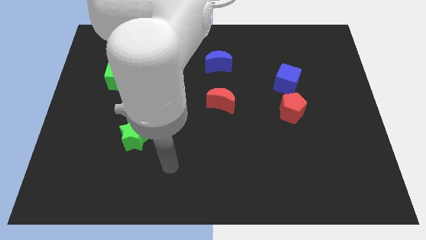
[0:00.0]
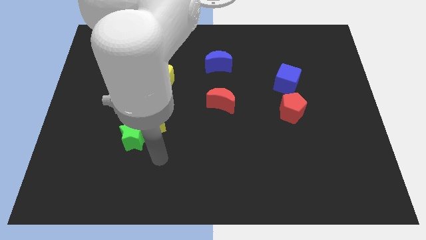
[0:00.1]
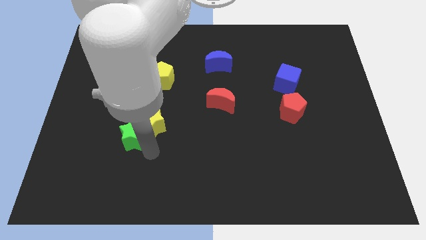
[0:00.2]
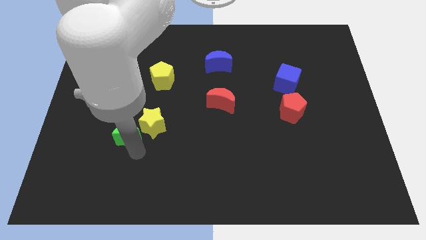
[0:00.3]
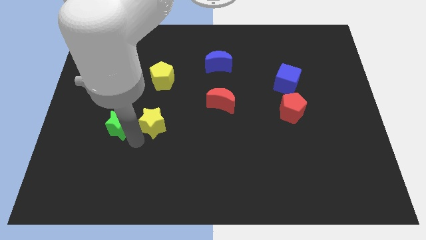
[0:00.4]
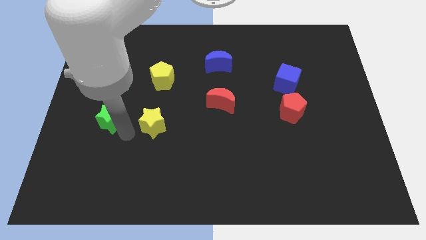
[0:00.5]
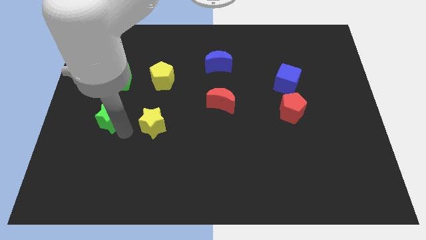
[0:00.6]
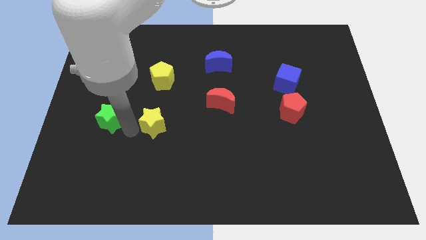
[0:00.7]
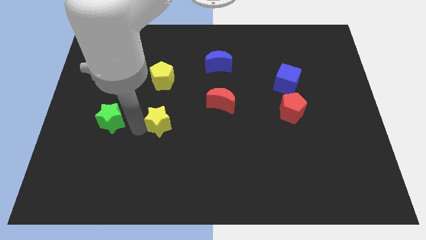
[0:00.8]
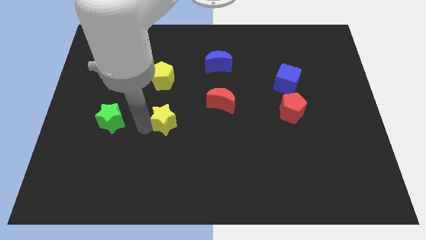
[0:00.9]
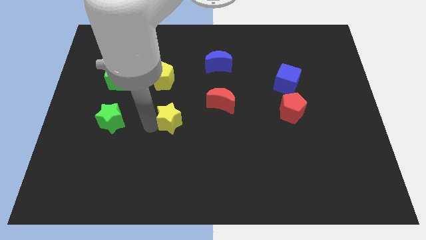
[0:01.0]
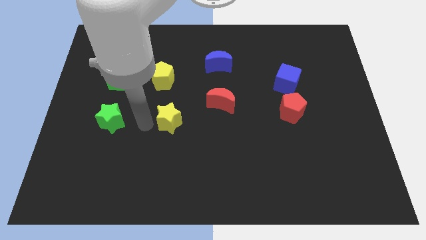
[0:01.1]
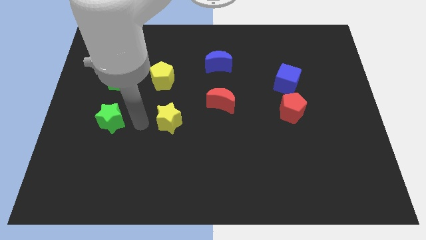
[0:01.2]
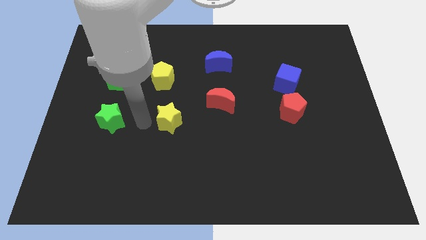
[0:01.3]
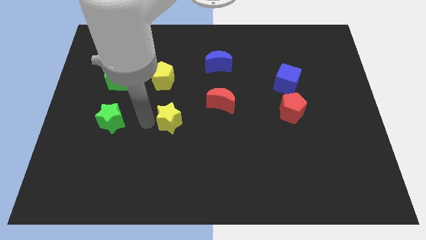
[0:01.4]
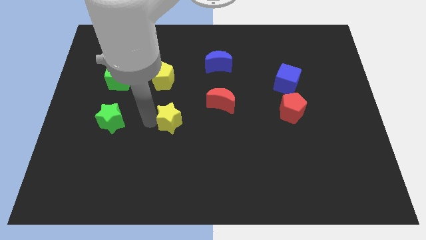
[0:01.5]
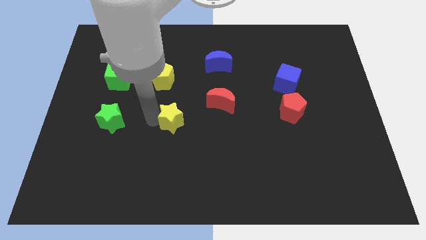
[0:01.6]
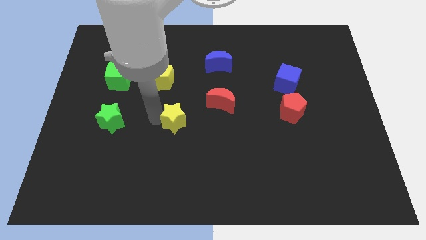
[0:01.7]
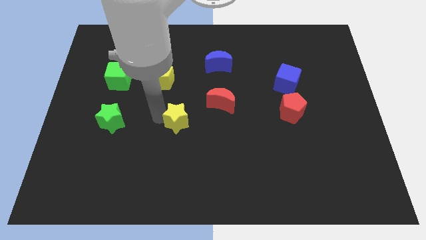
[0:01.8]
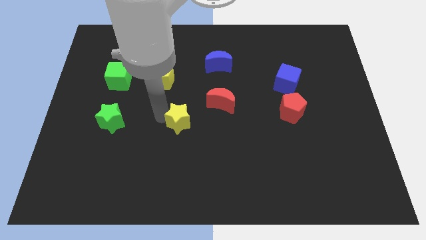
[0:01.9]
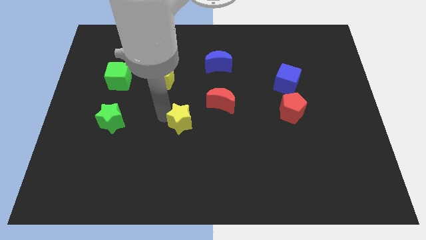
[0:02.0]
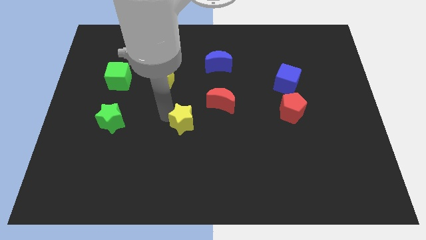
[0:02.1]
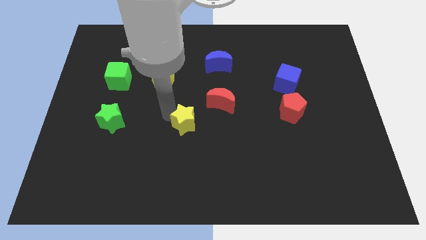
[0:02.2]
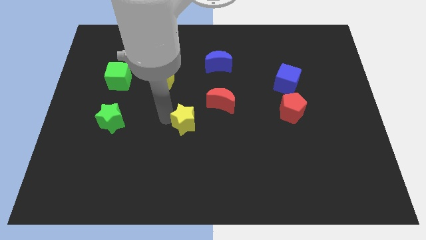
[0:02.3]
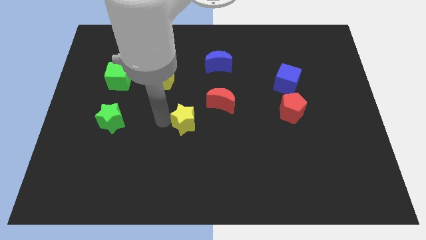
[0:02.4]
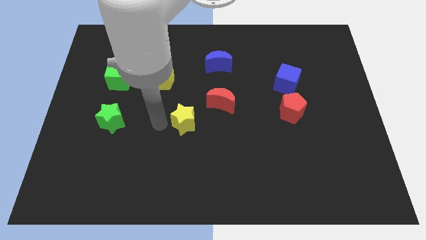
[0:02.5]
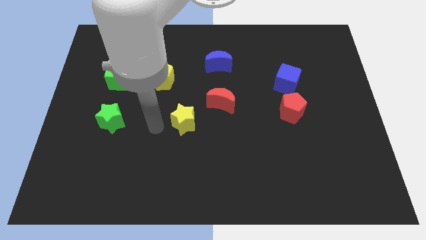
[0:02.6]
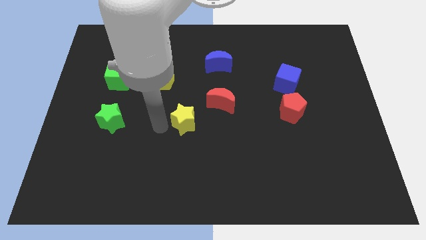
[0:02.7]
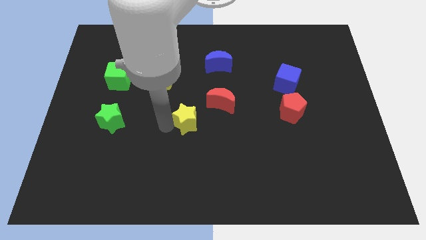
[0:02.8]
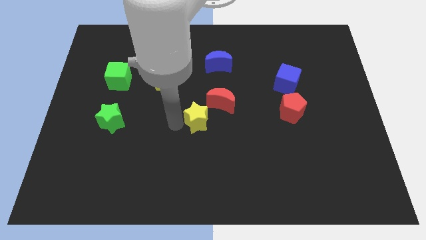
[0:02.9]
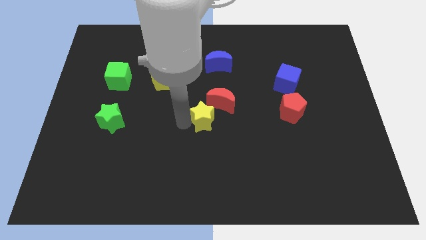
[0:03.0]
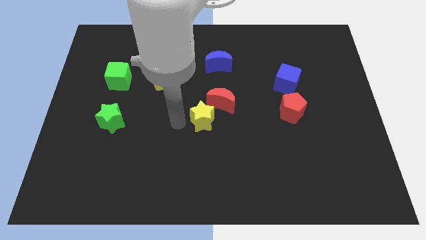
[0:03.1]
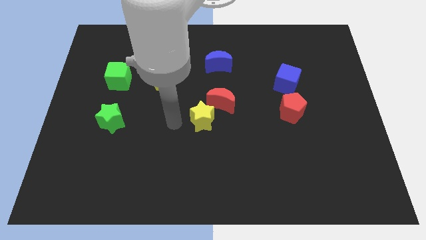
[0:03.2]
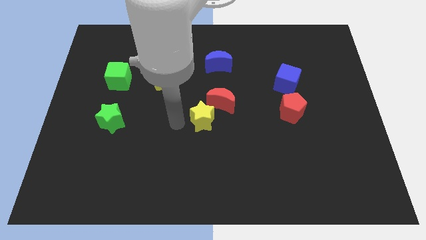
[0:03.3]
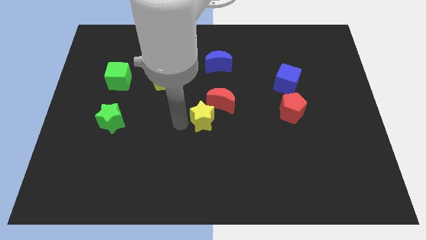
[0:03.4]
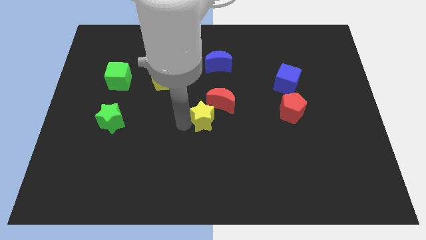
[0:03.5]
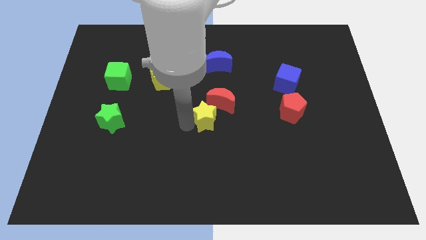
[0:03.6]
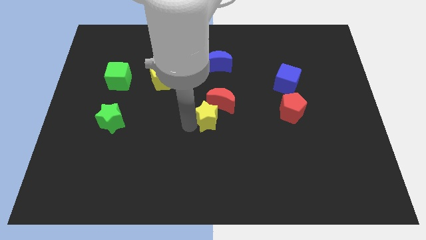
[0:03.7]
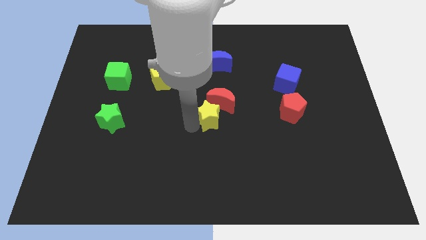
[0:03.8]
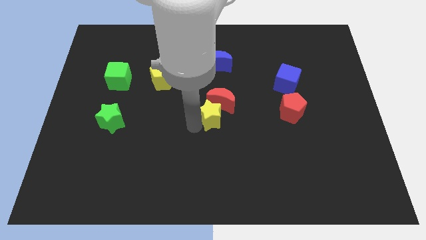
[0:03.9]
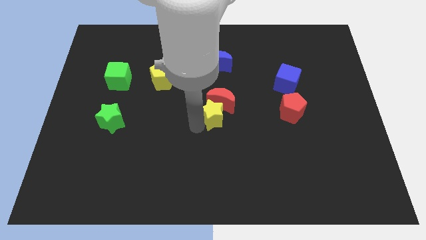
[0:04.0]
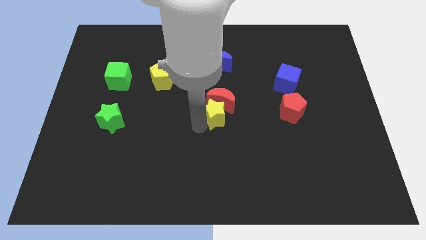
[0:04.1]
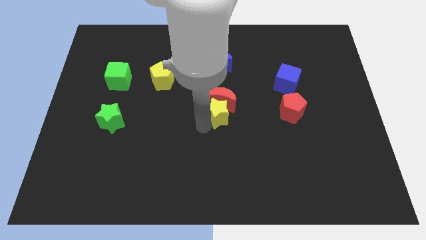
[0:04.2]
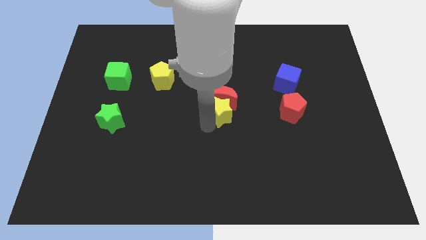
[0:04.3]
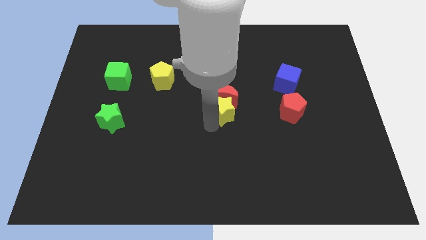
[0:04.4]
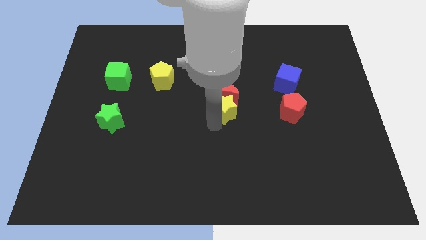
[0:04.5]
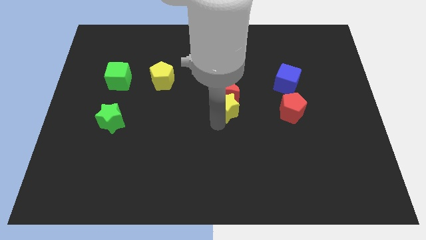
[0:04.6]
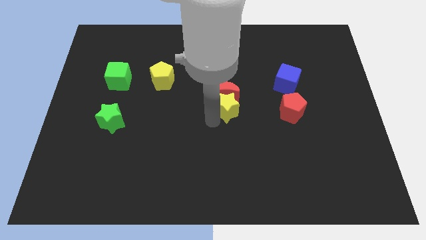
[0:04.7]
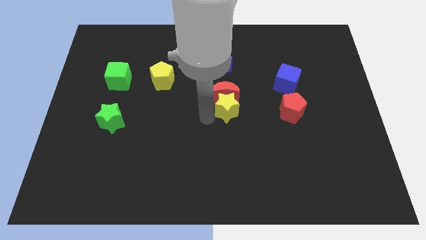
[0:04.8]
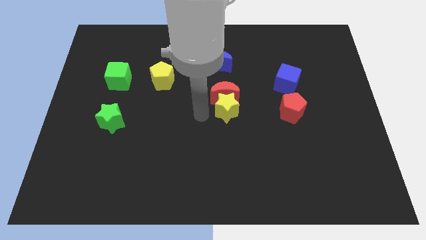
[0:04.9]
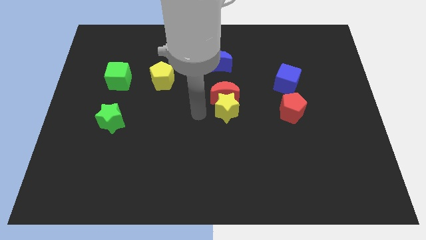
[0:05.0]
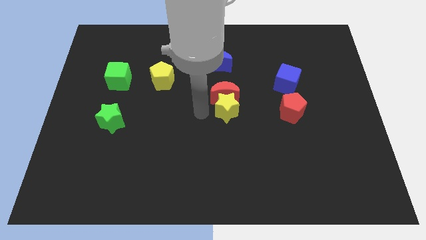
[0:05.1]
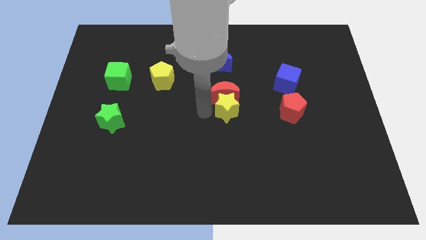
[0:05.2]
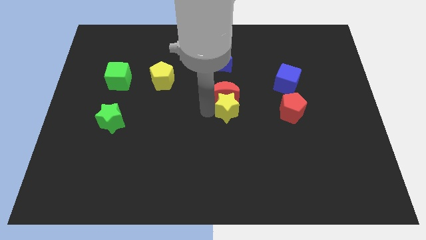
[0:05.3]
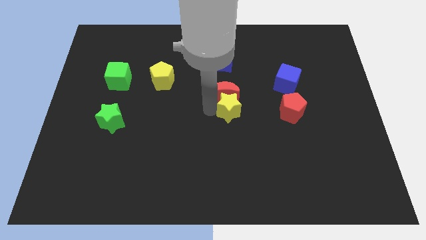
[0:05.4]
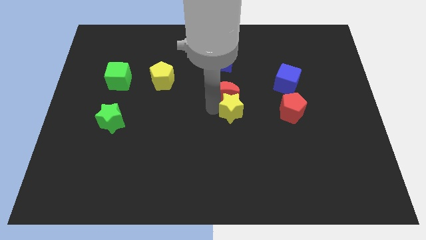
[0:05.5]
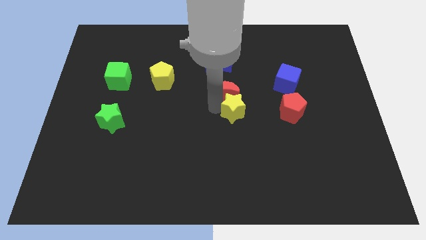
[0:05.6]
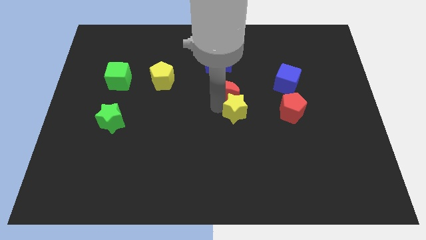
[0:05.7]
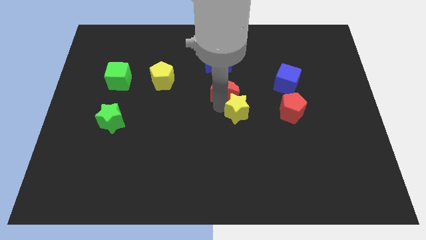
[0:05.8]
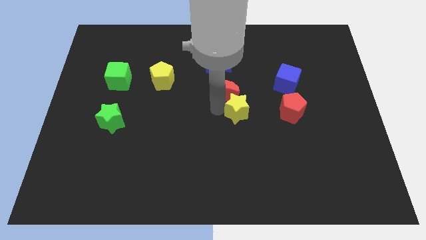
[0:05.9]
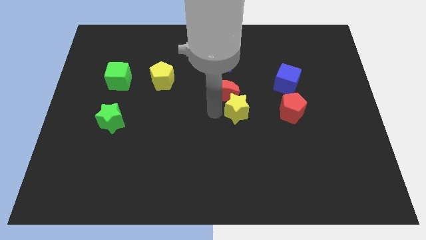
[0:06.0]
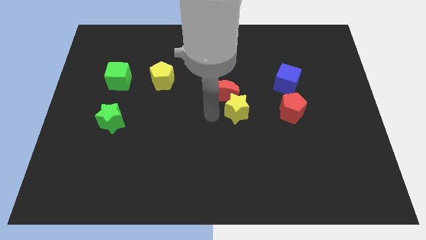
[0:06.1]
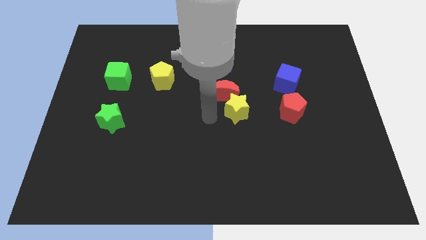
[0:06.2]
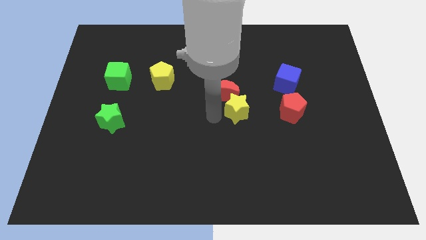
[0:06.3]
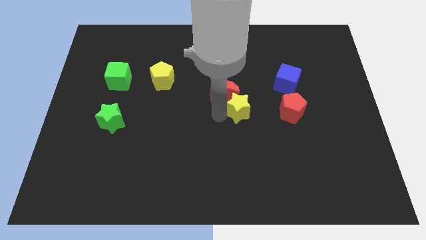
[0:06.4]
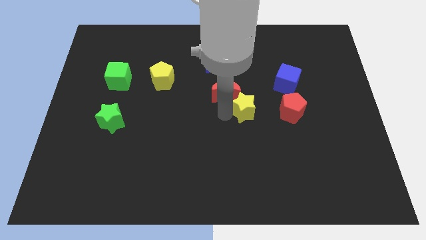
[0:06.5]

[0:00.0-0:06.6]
put the yellow star just right of the red moon
